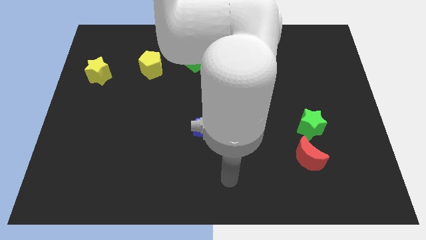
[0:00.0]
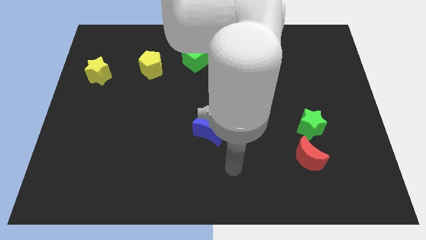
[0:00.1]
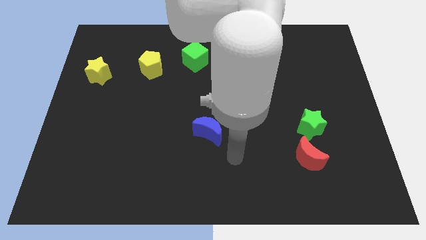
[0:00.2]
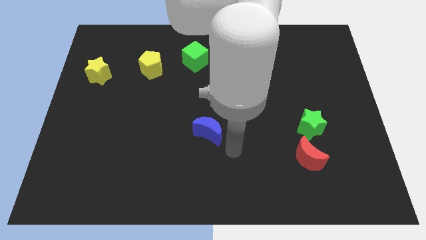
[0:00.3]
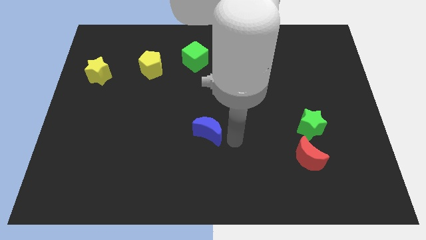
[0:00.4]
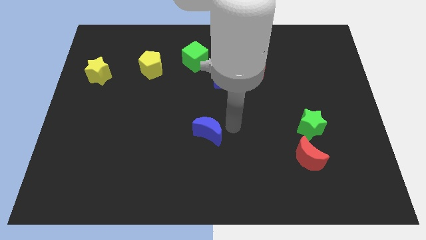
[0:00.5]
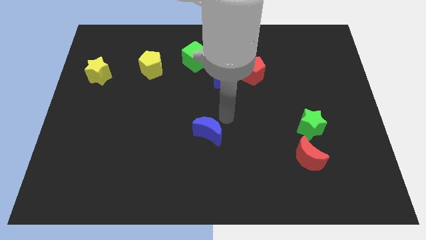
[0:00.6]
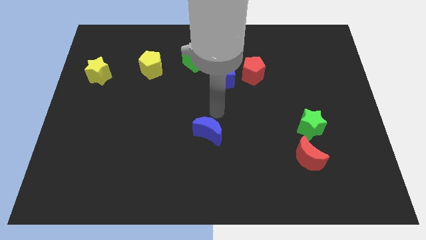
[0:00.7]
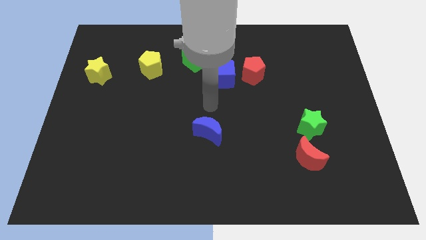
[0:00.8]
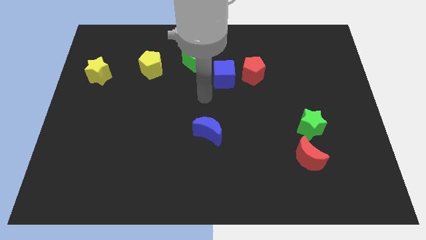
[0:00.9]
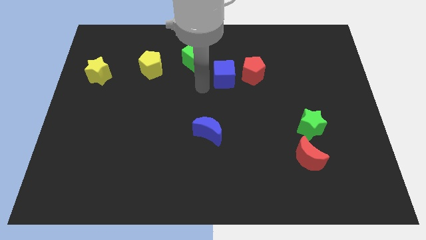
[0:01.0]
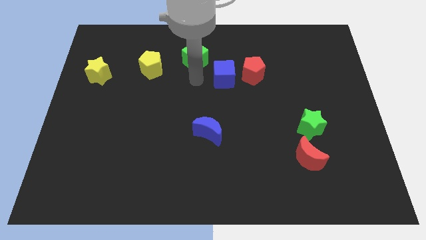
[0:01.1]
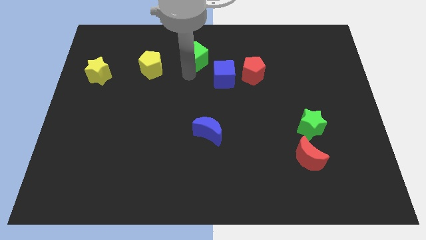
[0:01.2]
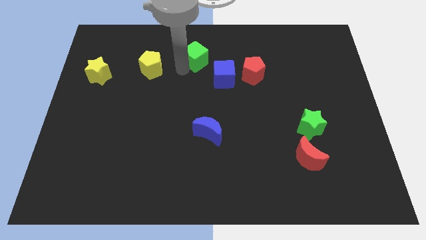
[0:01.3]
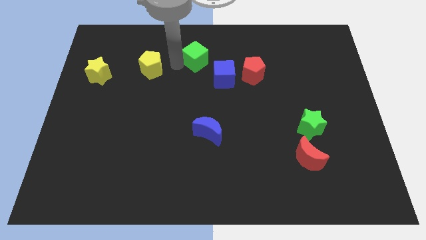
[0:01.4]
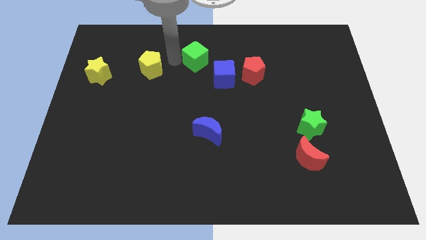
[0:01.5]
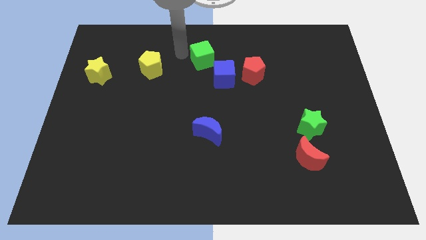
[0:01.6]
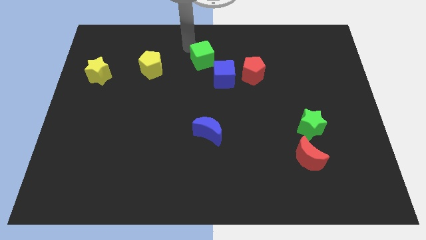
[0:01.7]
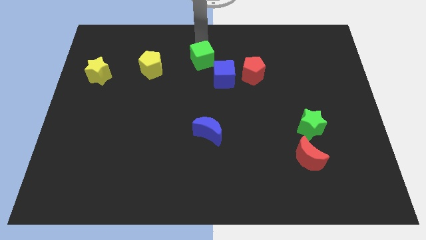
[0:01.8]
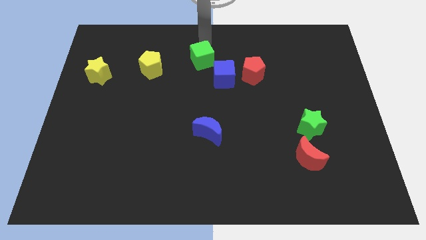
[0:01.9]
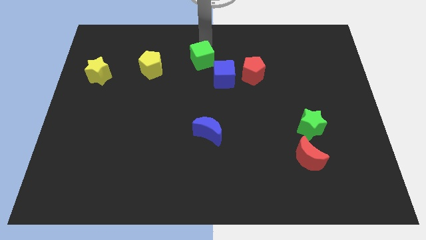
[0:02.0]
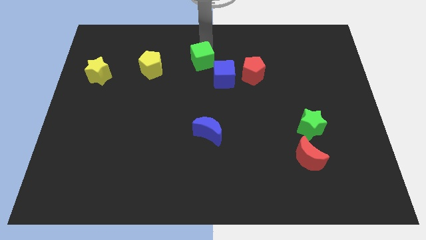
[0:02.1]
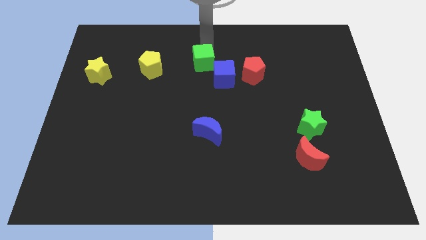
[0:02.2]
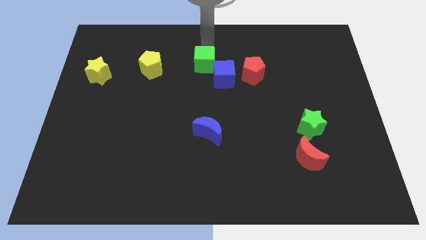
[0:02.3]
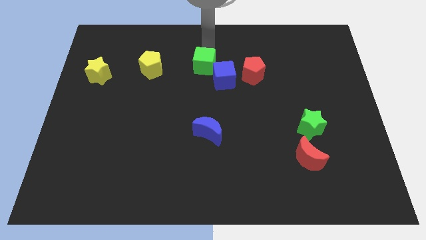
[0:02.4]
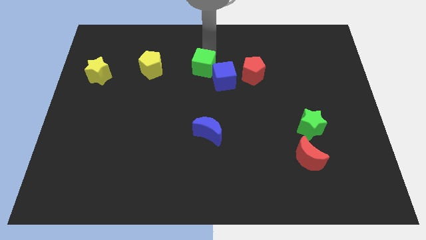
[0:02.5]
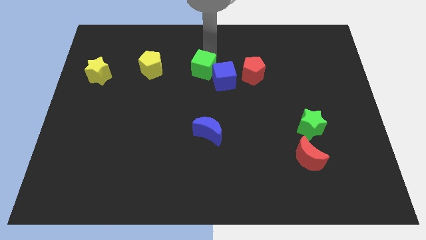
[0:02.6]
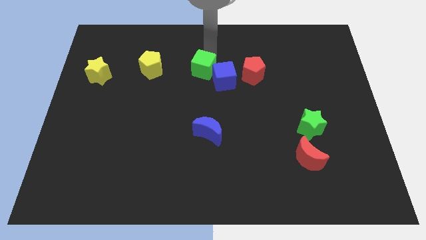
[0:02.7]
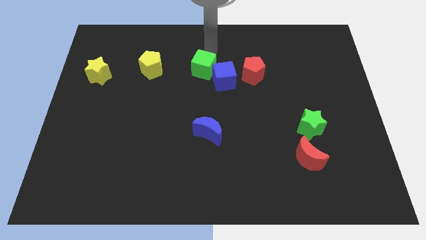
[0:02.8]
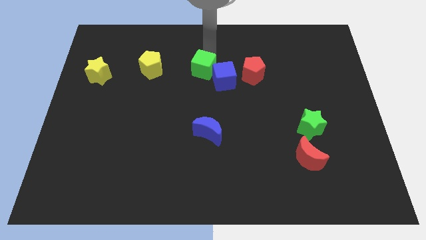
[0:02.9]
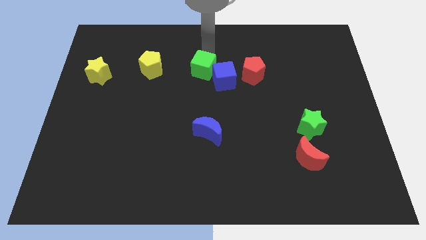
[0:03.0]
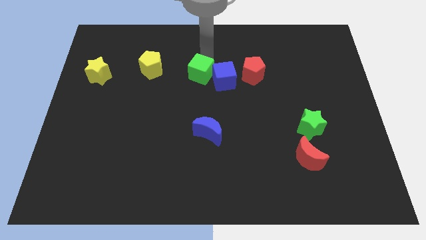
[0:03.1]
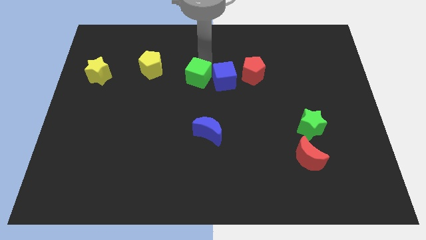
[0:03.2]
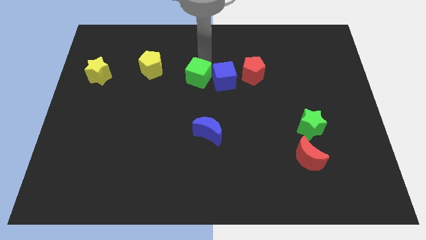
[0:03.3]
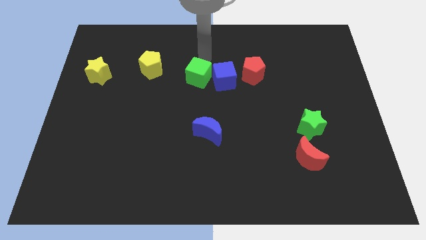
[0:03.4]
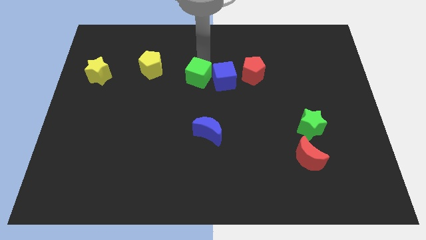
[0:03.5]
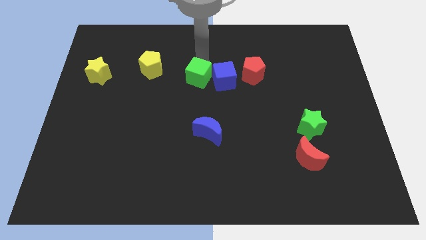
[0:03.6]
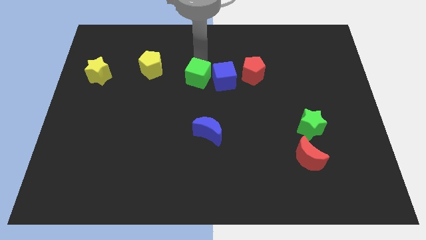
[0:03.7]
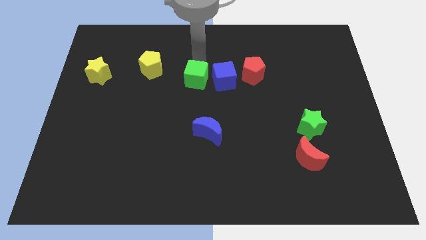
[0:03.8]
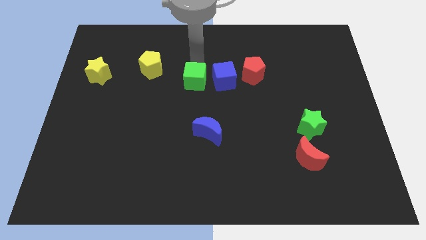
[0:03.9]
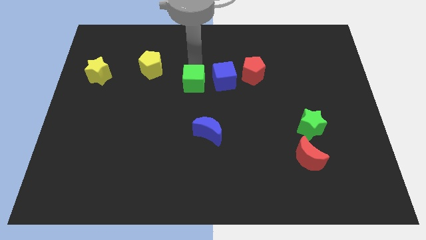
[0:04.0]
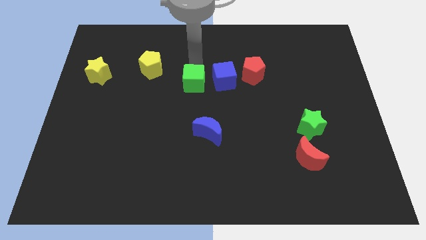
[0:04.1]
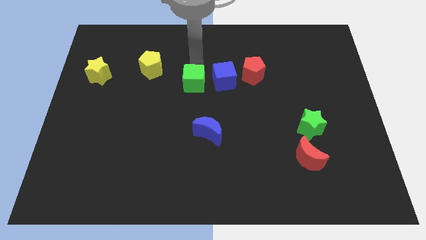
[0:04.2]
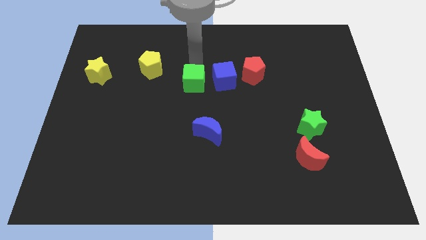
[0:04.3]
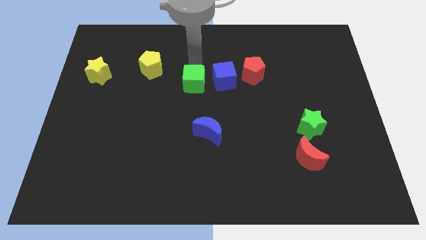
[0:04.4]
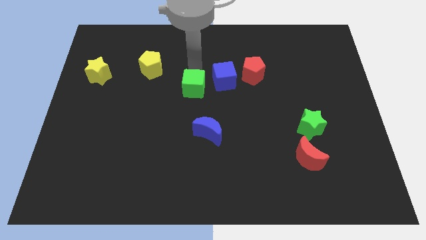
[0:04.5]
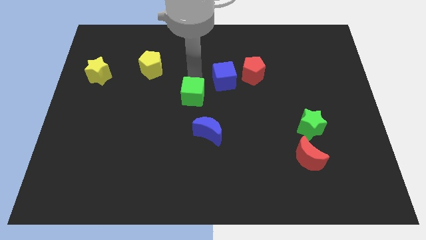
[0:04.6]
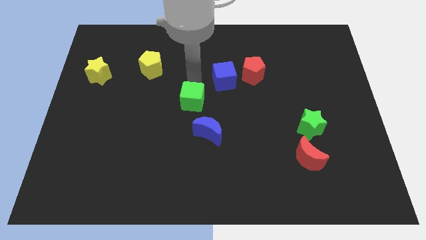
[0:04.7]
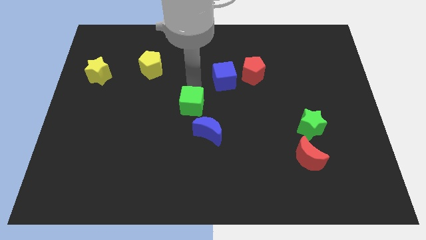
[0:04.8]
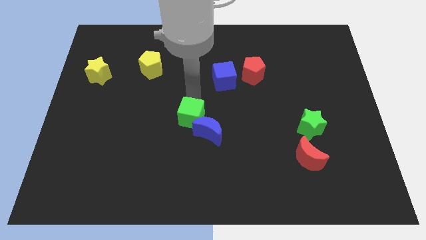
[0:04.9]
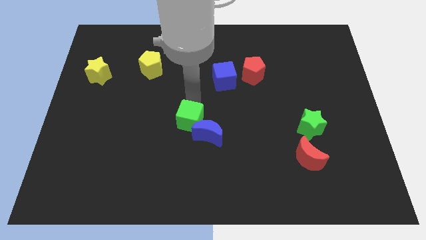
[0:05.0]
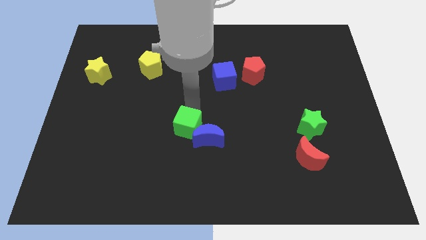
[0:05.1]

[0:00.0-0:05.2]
move the green cube downwards

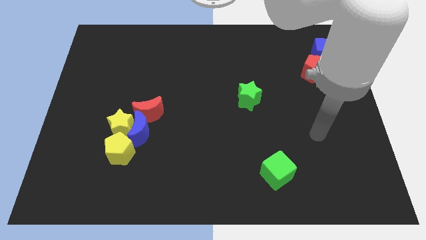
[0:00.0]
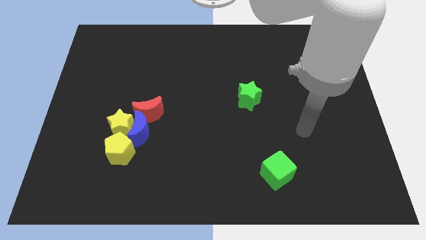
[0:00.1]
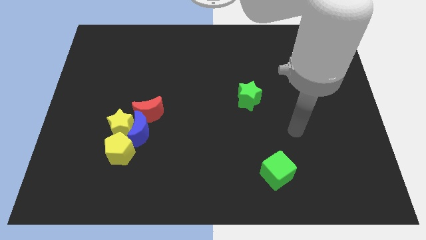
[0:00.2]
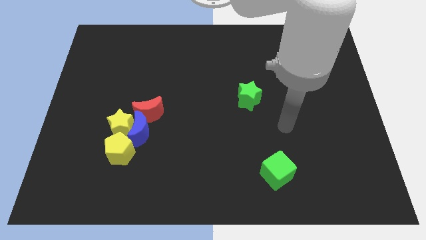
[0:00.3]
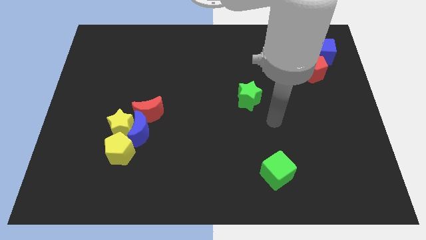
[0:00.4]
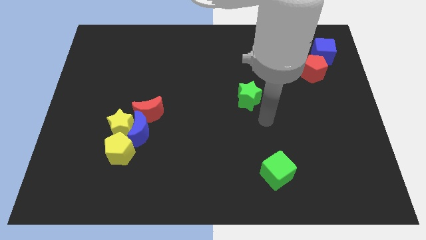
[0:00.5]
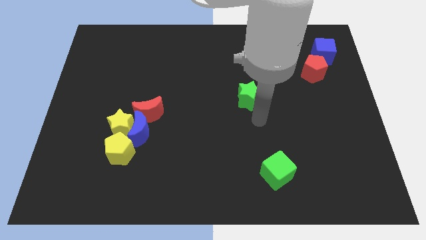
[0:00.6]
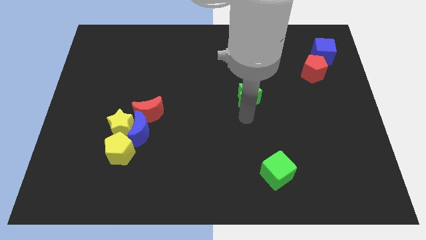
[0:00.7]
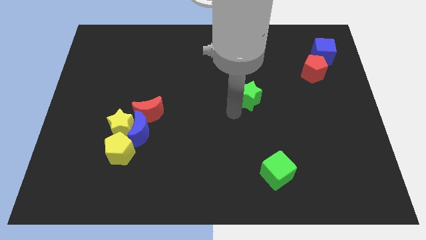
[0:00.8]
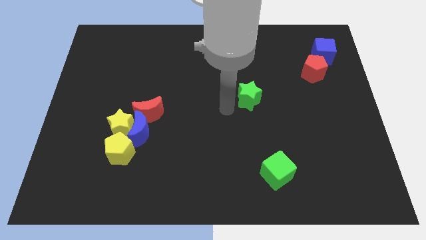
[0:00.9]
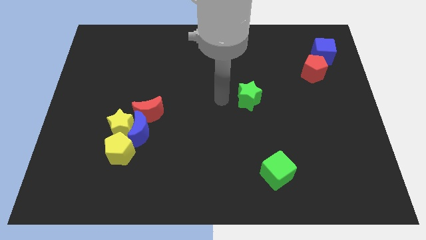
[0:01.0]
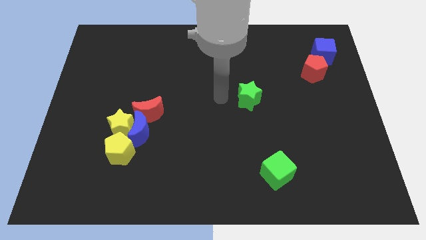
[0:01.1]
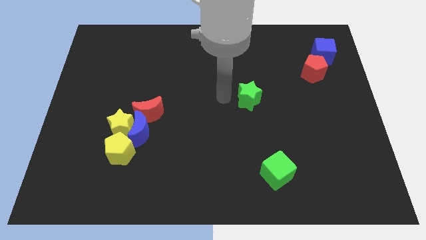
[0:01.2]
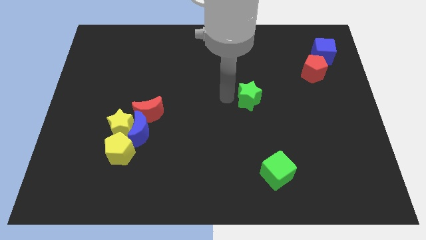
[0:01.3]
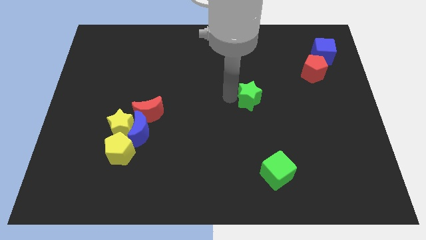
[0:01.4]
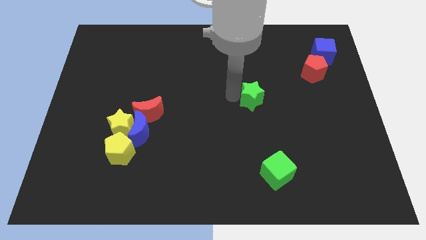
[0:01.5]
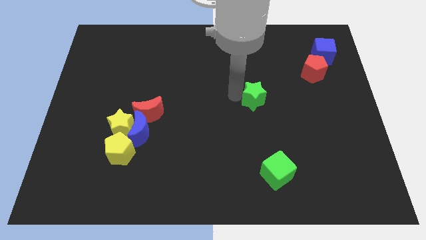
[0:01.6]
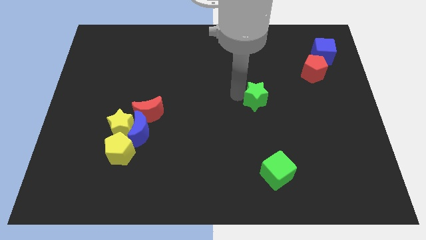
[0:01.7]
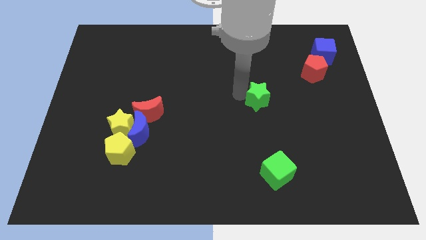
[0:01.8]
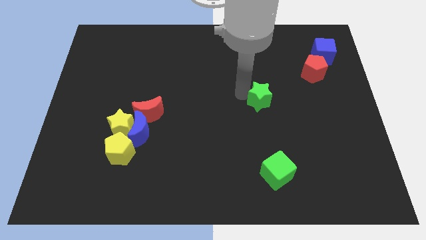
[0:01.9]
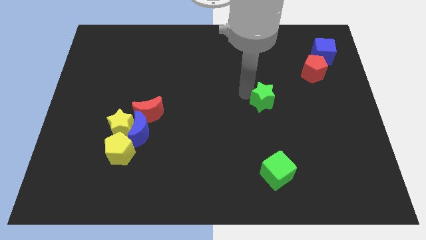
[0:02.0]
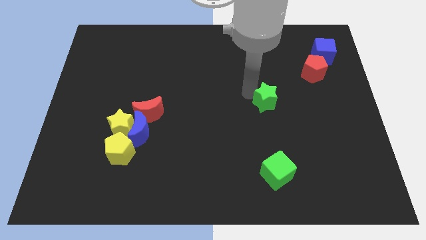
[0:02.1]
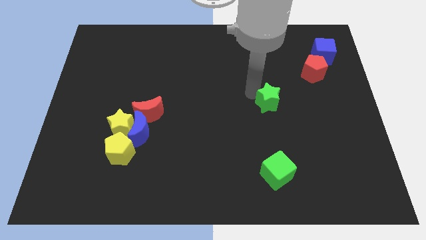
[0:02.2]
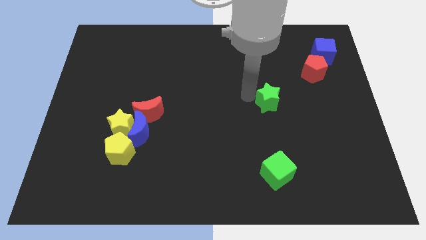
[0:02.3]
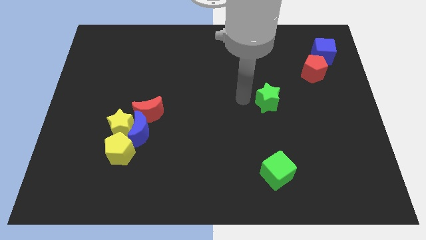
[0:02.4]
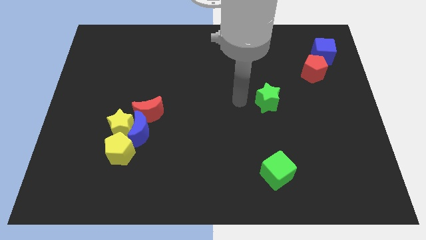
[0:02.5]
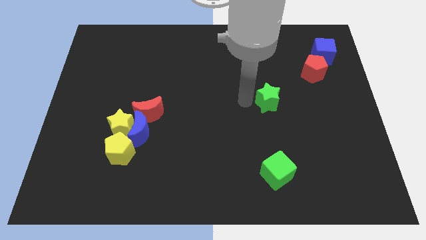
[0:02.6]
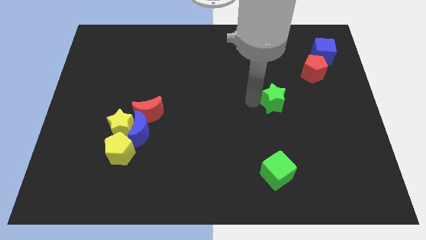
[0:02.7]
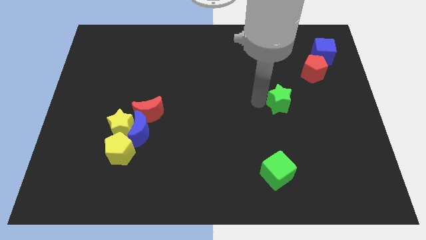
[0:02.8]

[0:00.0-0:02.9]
slide the green star to the right a little
